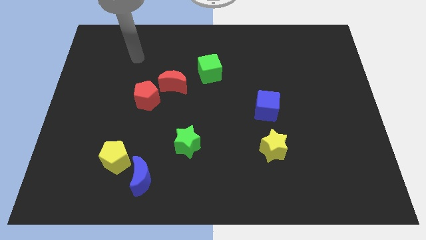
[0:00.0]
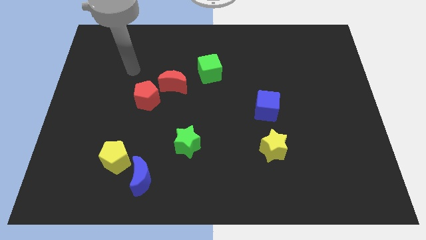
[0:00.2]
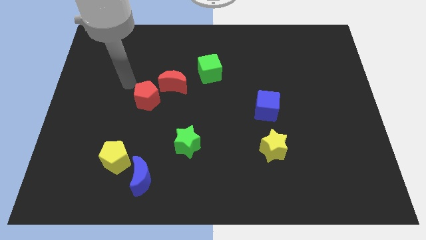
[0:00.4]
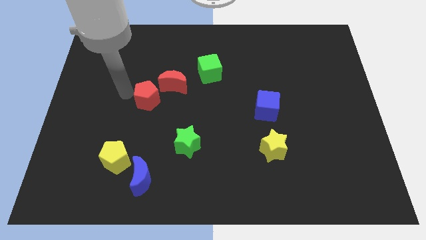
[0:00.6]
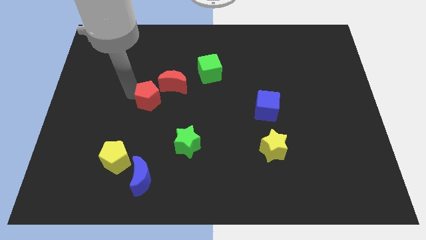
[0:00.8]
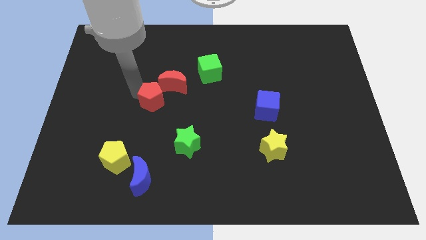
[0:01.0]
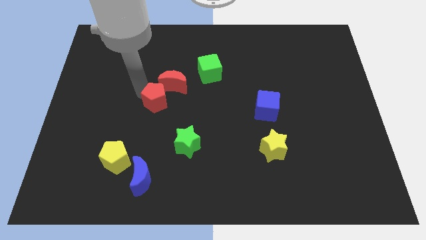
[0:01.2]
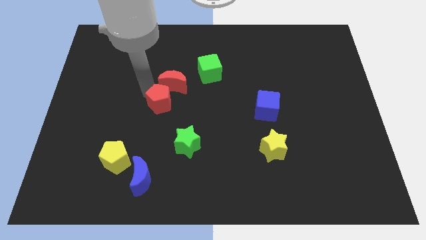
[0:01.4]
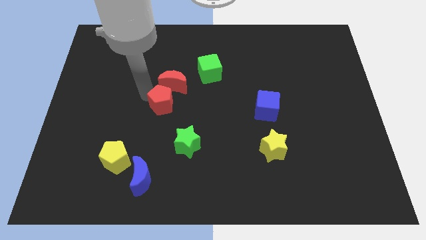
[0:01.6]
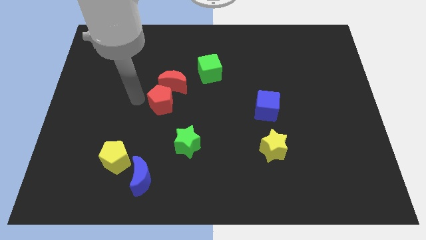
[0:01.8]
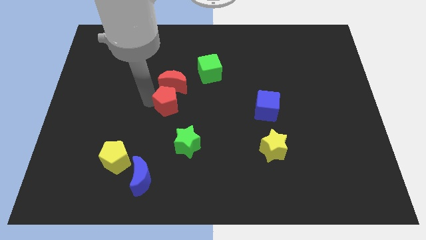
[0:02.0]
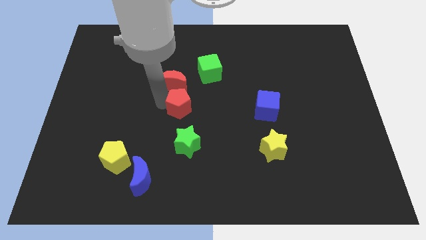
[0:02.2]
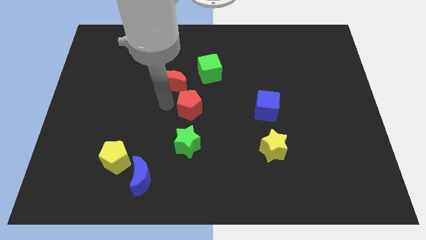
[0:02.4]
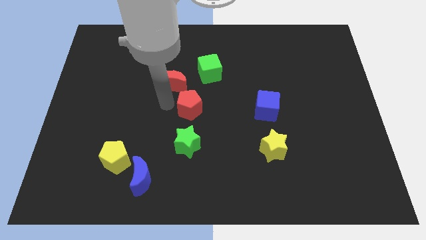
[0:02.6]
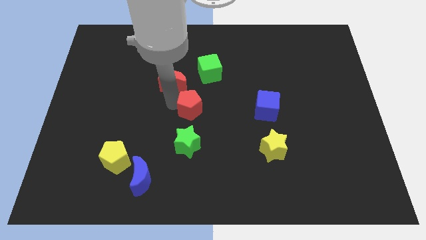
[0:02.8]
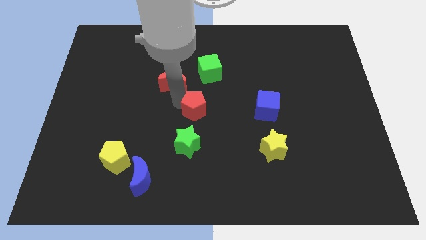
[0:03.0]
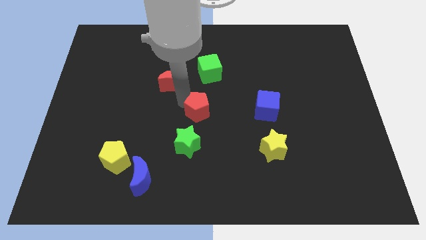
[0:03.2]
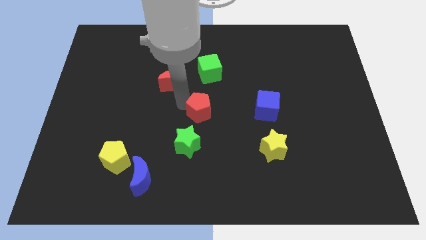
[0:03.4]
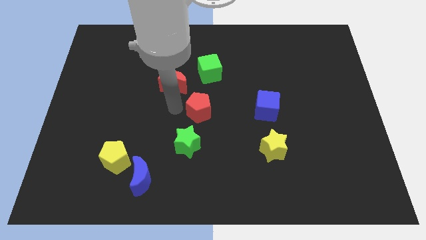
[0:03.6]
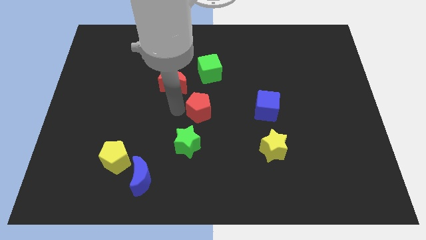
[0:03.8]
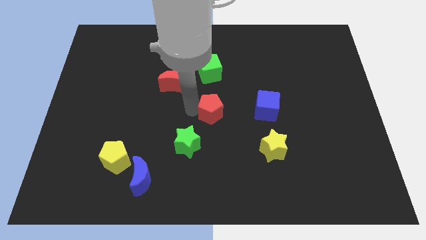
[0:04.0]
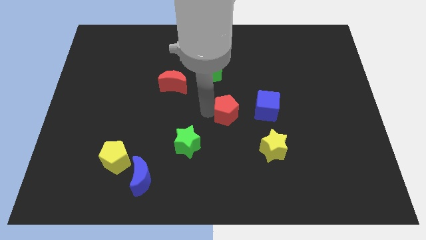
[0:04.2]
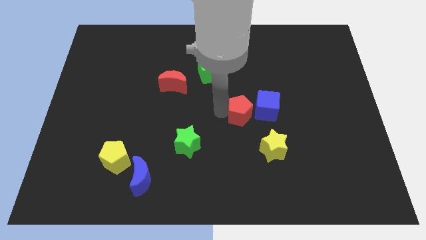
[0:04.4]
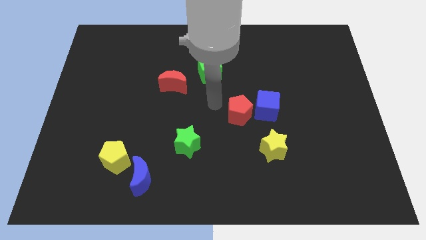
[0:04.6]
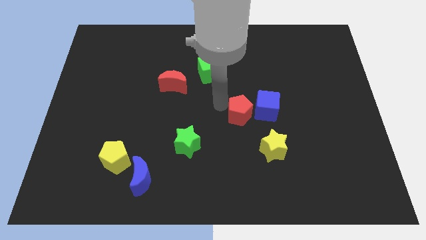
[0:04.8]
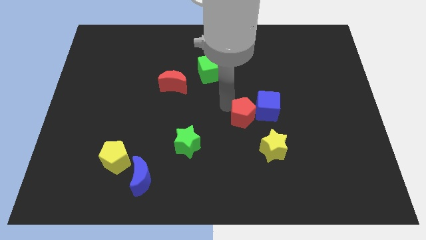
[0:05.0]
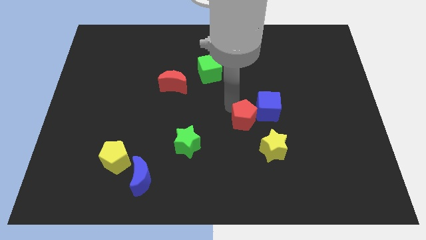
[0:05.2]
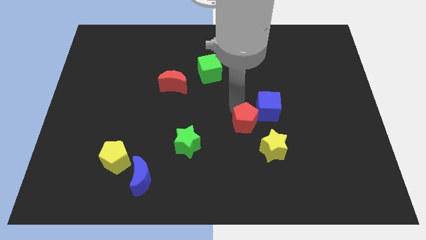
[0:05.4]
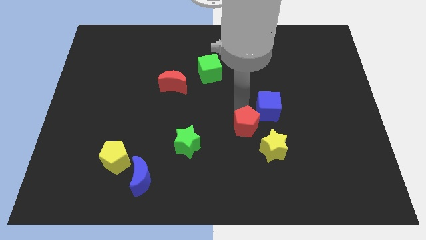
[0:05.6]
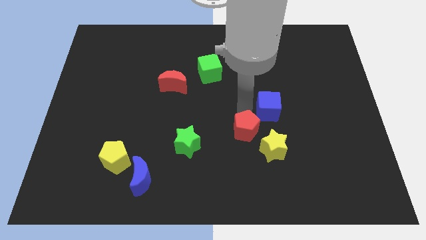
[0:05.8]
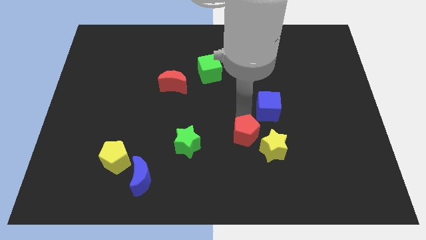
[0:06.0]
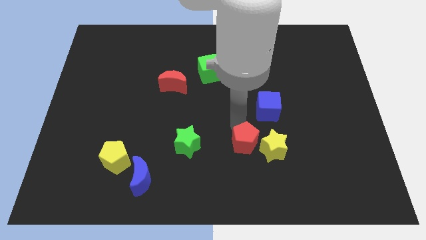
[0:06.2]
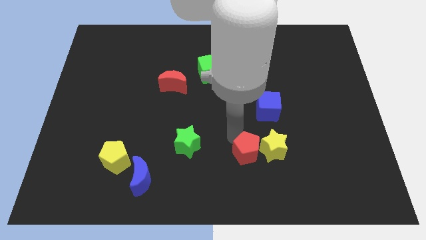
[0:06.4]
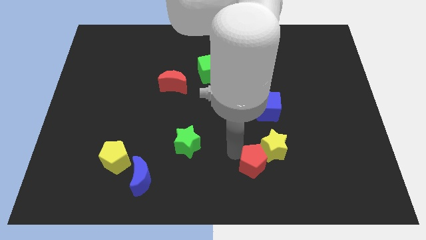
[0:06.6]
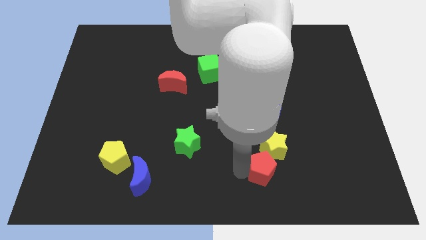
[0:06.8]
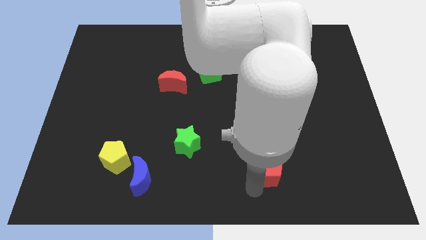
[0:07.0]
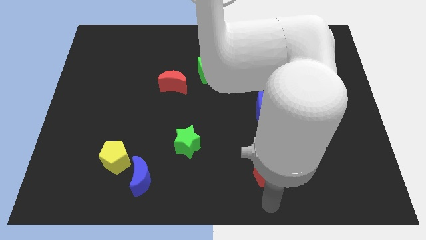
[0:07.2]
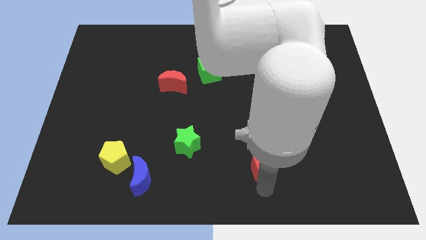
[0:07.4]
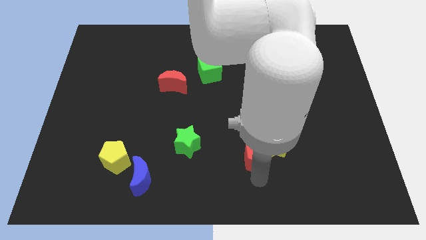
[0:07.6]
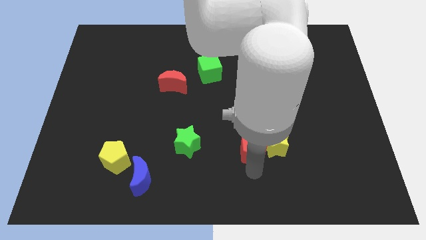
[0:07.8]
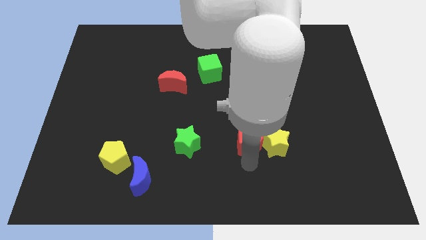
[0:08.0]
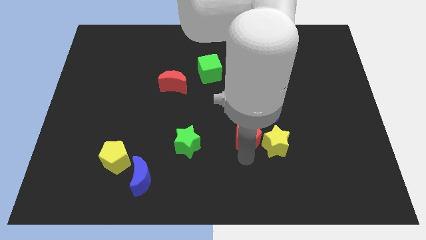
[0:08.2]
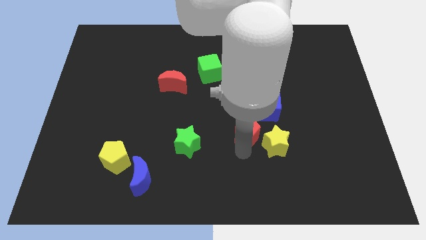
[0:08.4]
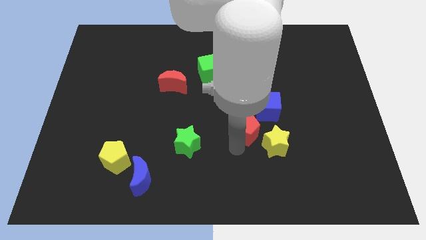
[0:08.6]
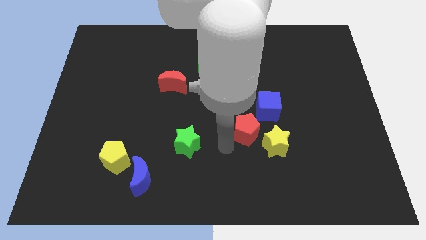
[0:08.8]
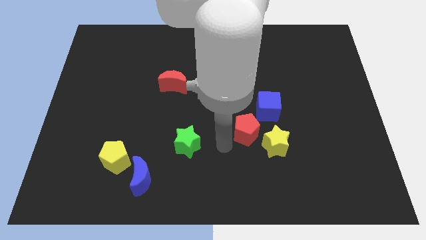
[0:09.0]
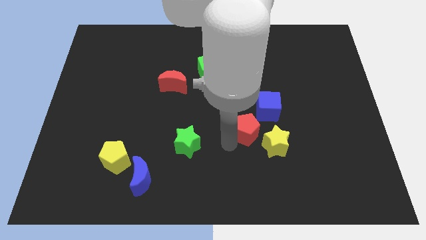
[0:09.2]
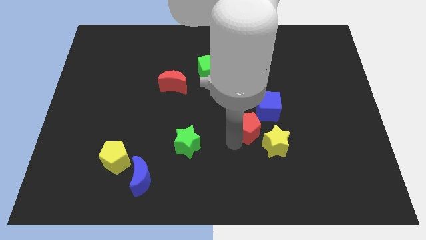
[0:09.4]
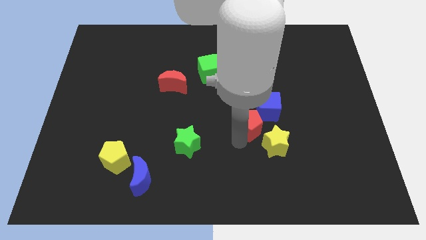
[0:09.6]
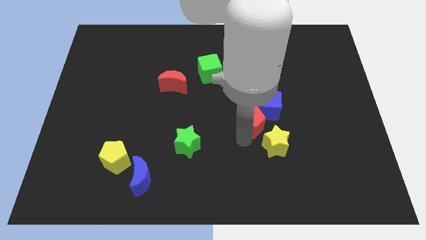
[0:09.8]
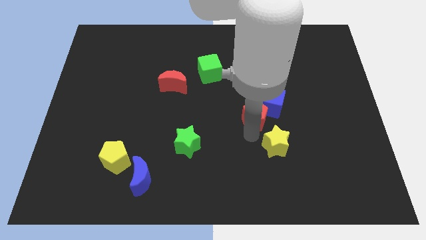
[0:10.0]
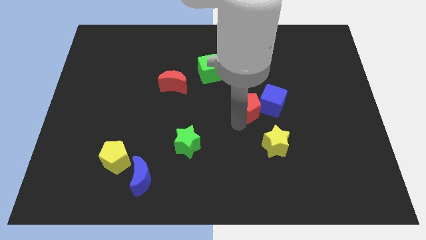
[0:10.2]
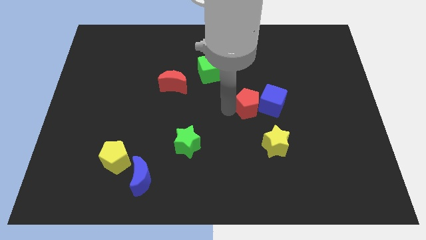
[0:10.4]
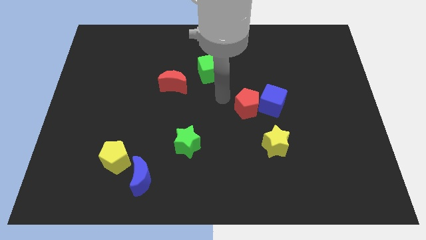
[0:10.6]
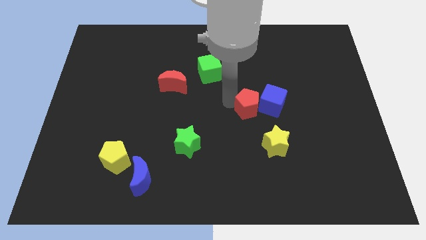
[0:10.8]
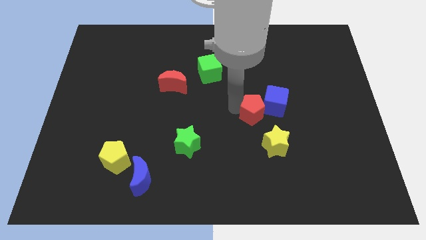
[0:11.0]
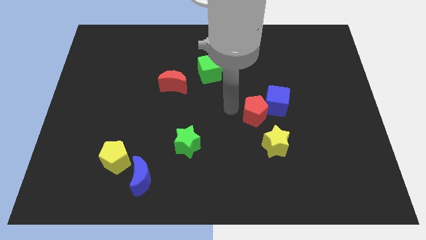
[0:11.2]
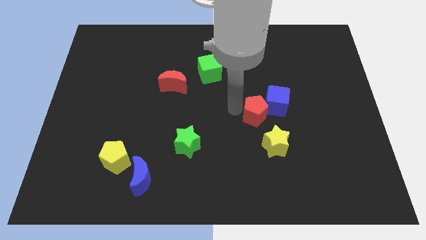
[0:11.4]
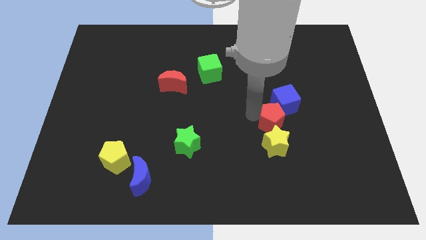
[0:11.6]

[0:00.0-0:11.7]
slide the red pentagon diagonally up and to the right of the yellow star
